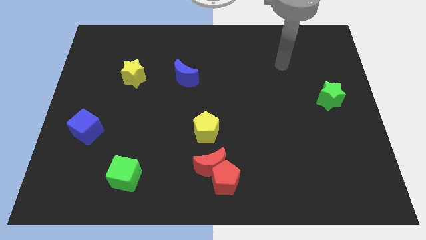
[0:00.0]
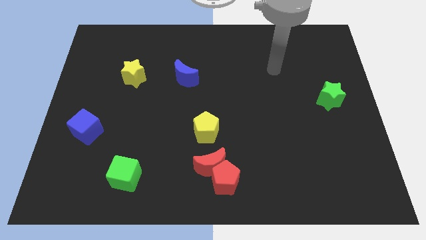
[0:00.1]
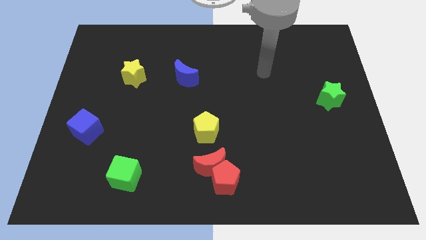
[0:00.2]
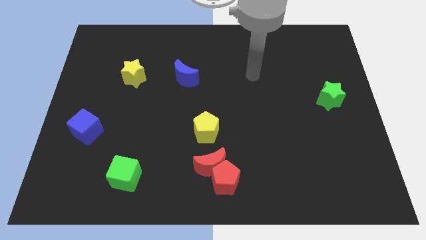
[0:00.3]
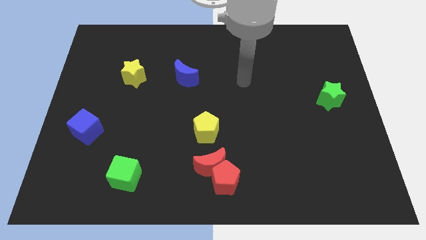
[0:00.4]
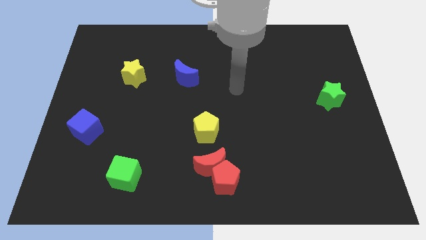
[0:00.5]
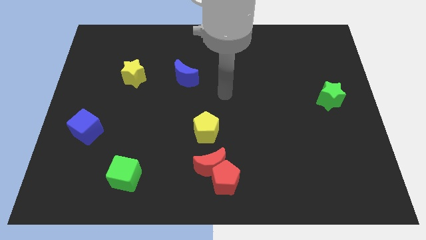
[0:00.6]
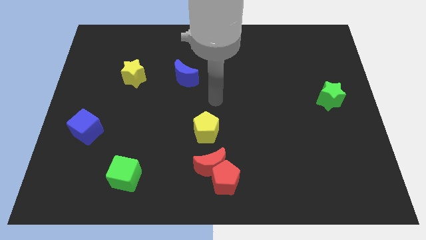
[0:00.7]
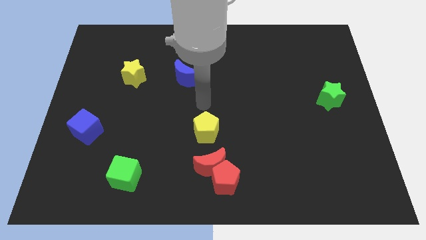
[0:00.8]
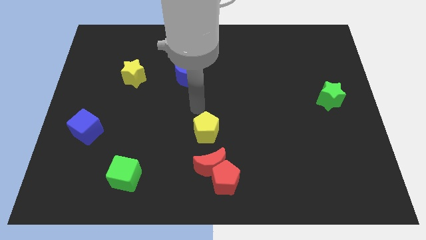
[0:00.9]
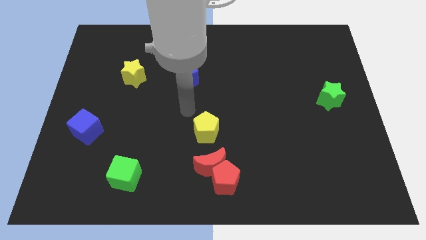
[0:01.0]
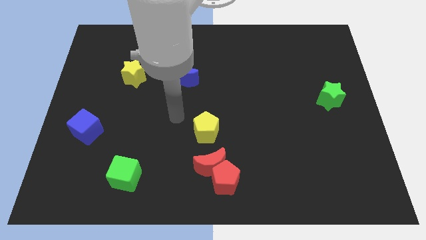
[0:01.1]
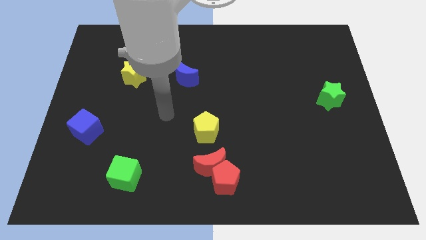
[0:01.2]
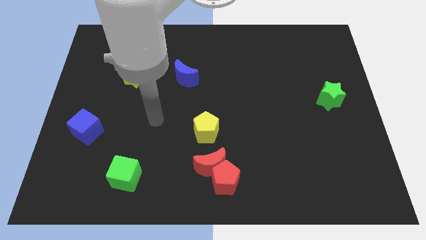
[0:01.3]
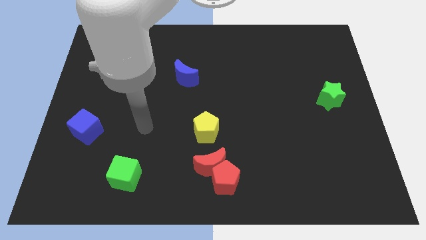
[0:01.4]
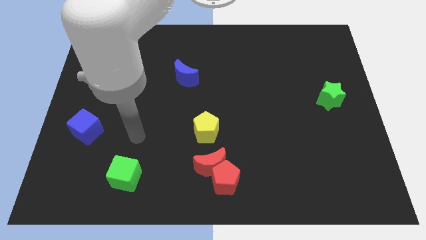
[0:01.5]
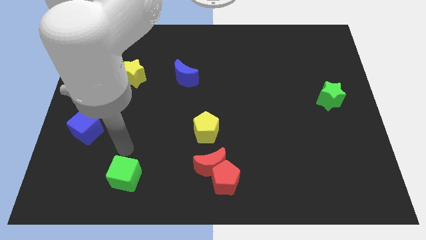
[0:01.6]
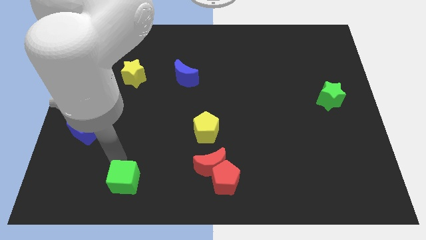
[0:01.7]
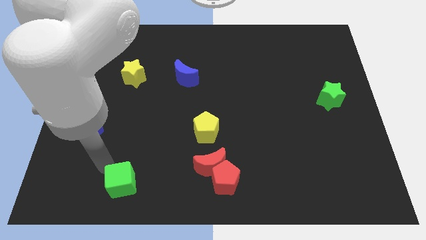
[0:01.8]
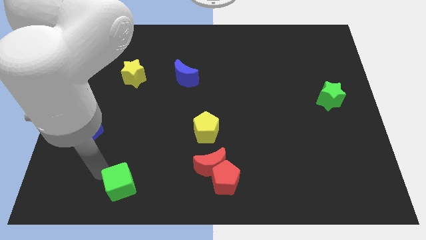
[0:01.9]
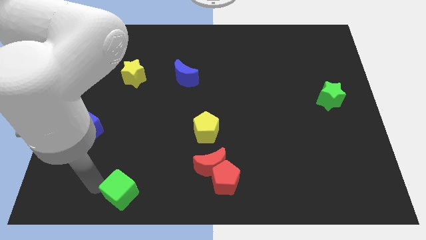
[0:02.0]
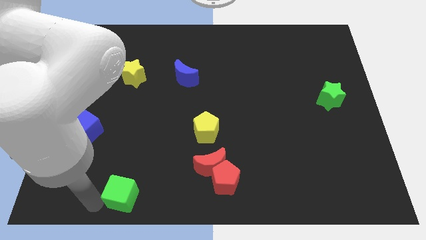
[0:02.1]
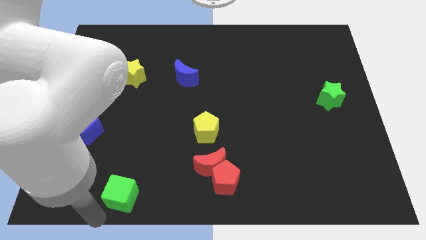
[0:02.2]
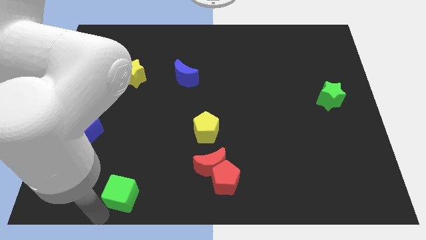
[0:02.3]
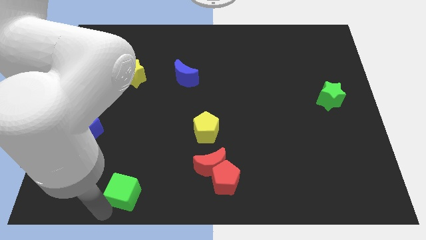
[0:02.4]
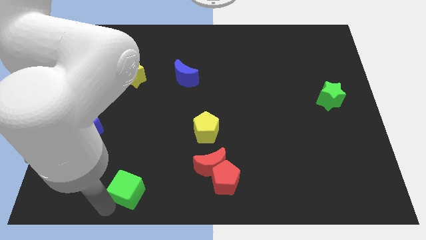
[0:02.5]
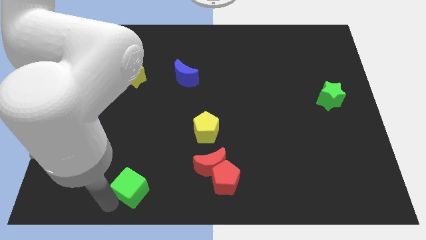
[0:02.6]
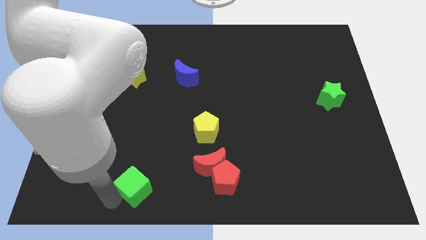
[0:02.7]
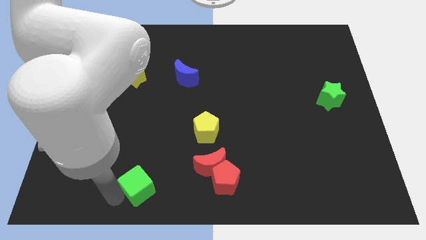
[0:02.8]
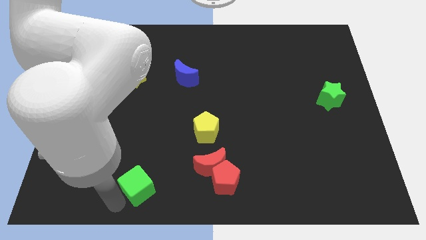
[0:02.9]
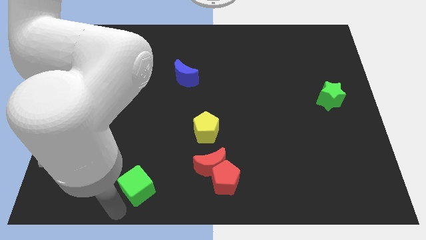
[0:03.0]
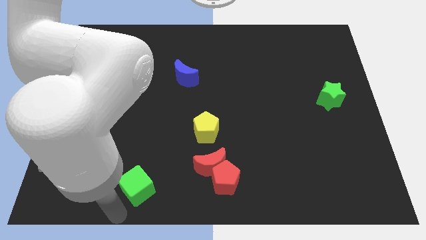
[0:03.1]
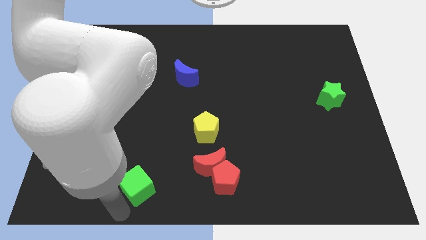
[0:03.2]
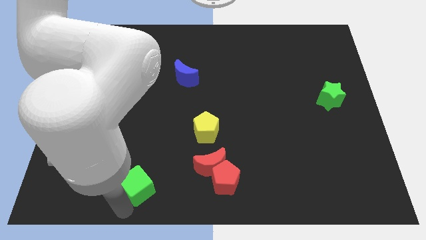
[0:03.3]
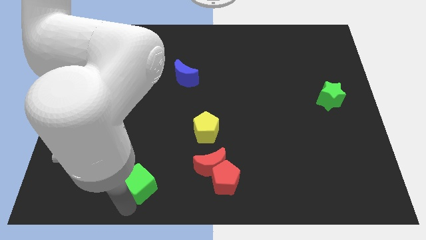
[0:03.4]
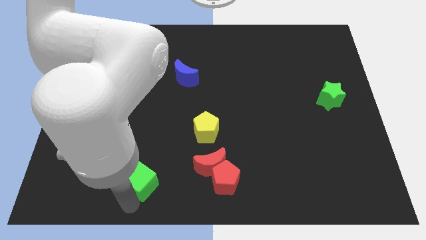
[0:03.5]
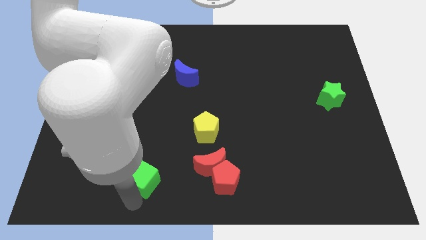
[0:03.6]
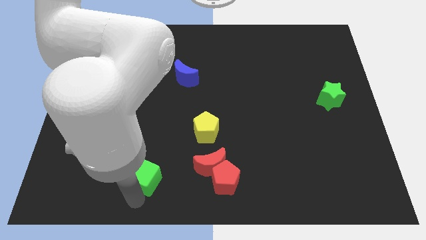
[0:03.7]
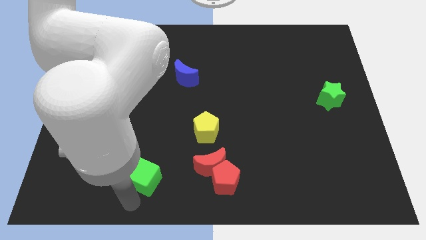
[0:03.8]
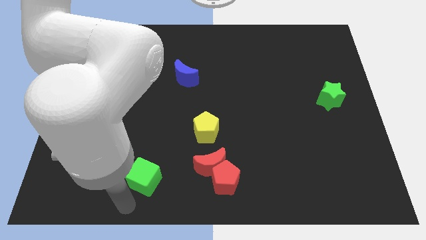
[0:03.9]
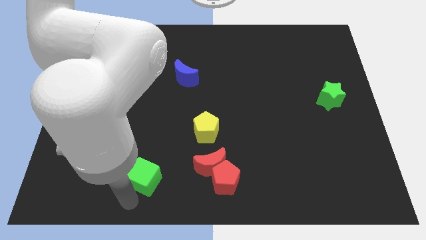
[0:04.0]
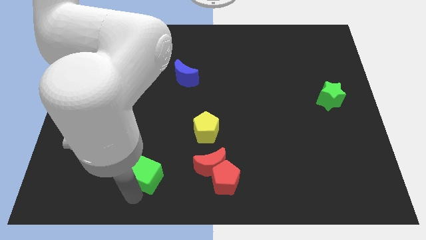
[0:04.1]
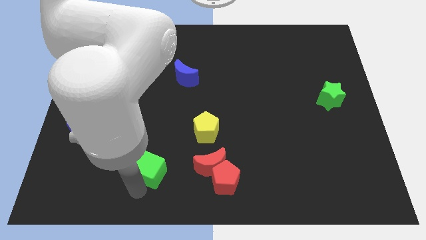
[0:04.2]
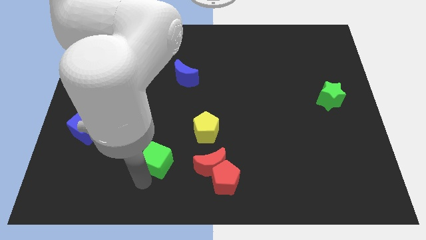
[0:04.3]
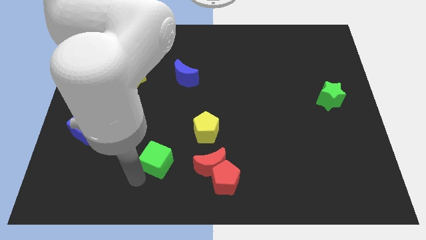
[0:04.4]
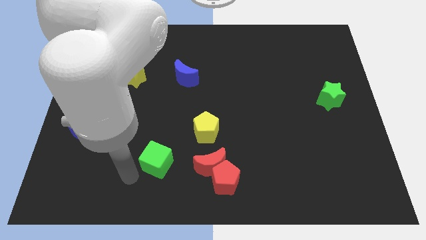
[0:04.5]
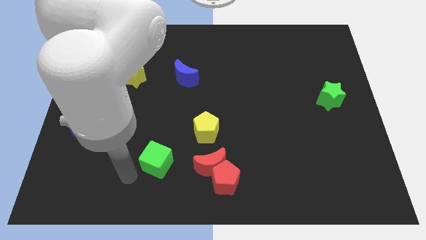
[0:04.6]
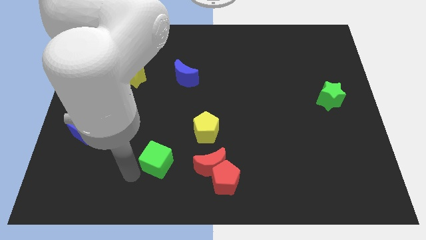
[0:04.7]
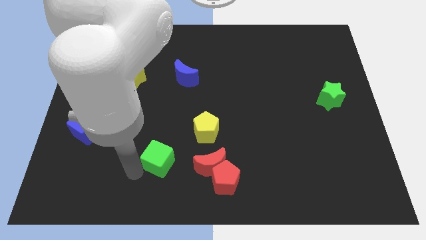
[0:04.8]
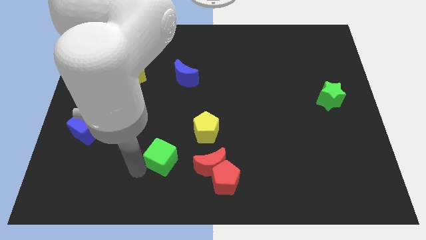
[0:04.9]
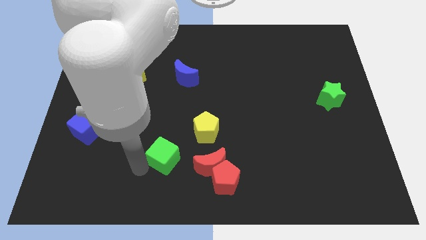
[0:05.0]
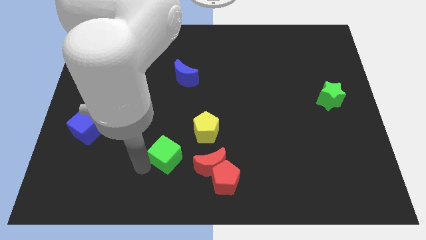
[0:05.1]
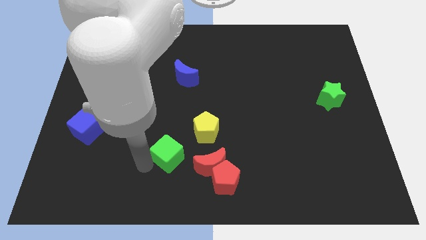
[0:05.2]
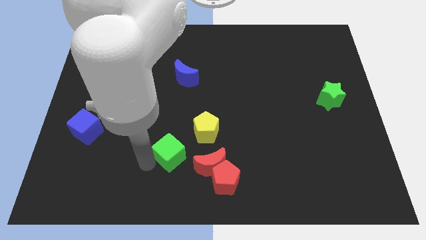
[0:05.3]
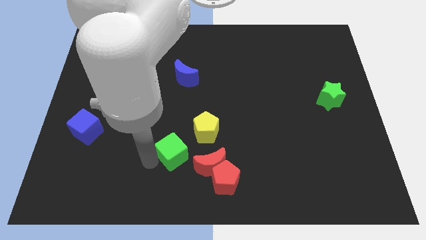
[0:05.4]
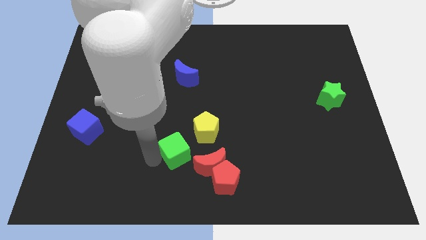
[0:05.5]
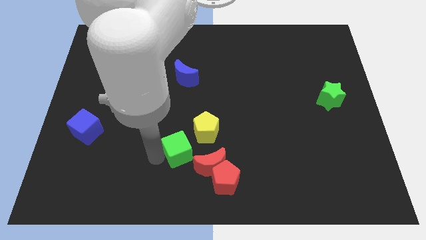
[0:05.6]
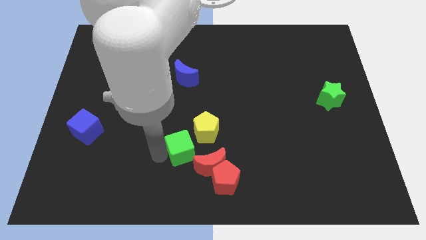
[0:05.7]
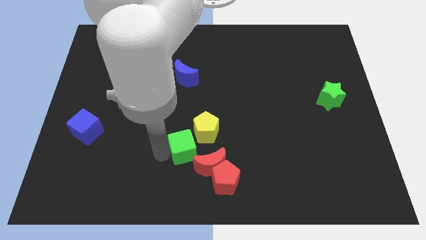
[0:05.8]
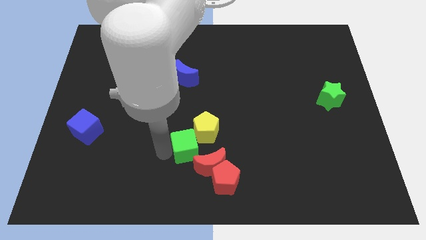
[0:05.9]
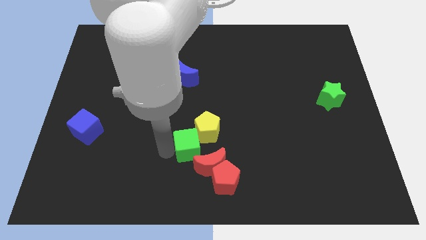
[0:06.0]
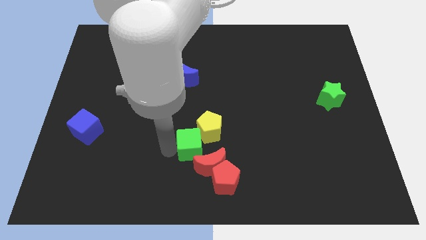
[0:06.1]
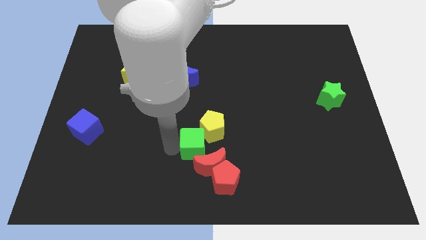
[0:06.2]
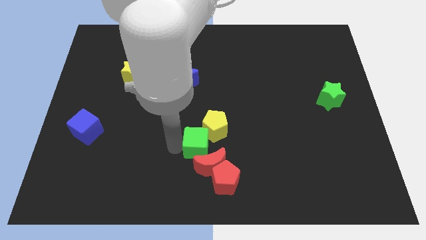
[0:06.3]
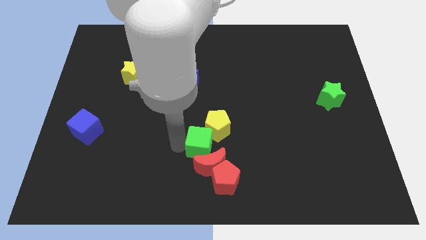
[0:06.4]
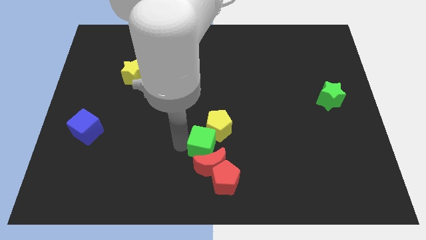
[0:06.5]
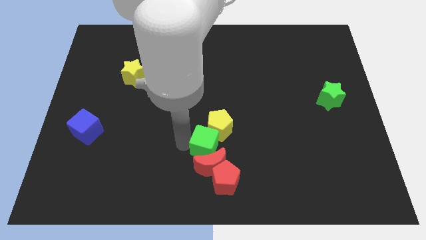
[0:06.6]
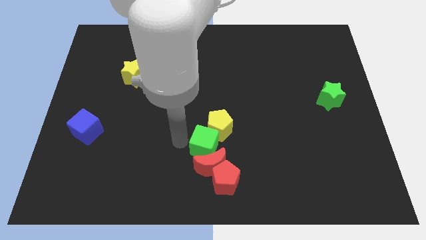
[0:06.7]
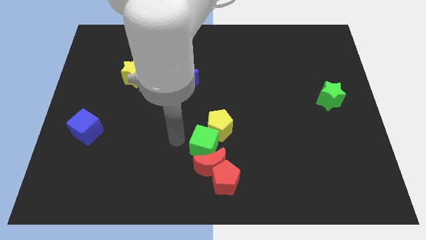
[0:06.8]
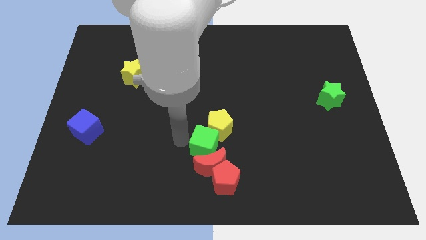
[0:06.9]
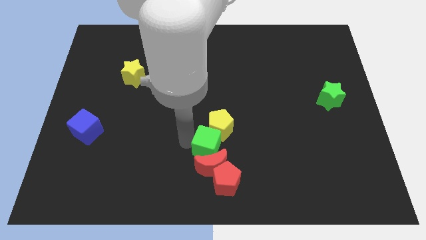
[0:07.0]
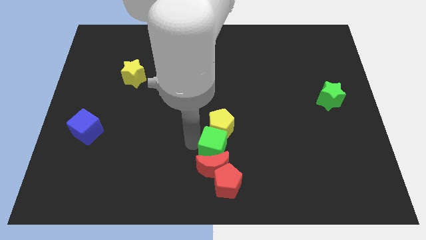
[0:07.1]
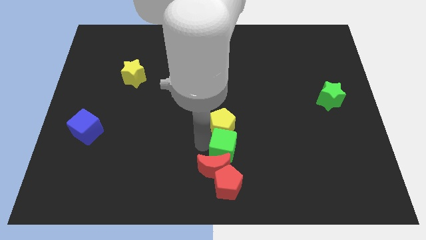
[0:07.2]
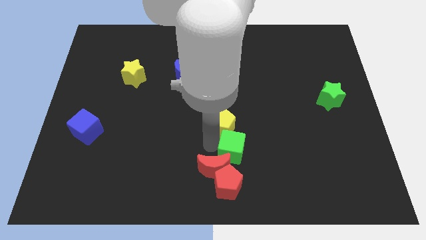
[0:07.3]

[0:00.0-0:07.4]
move the green cube right

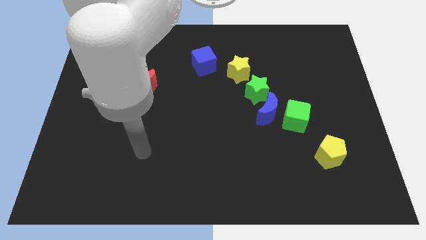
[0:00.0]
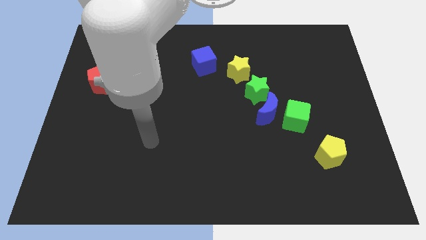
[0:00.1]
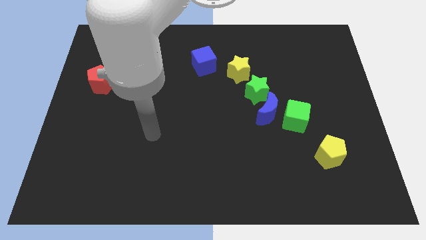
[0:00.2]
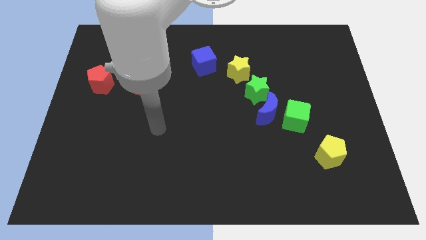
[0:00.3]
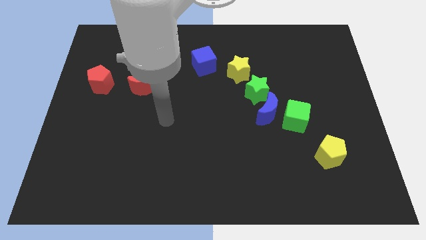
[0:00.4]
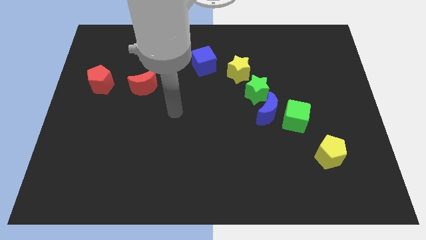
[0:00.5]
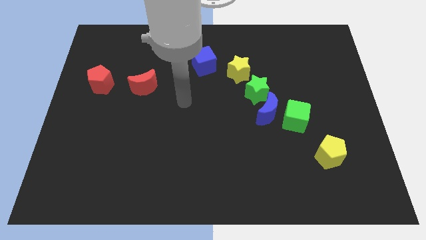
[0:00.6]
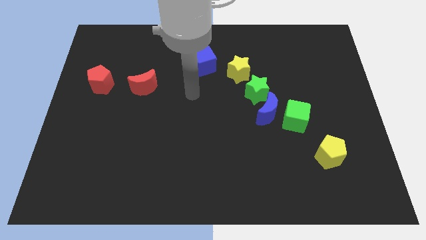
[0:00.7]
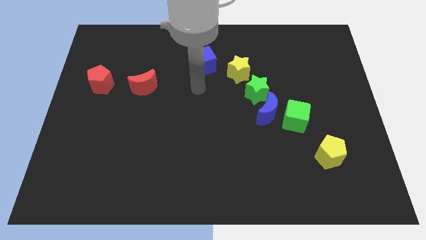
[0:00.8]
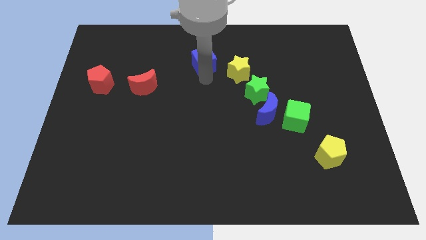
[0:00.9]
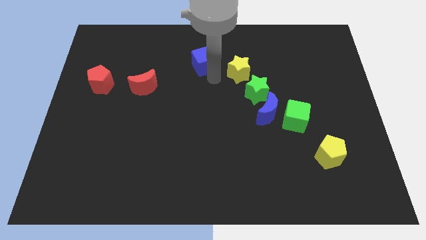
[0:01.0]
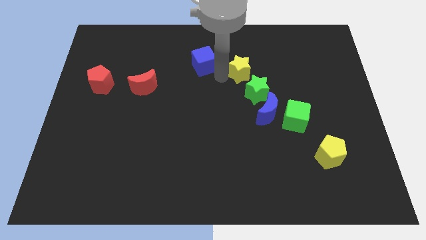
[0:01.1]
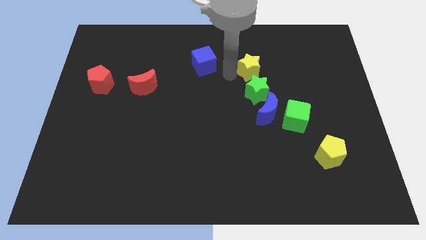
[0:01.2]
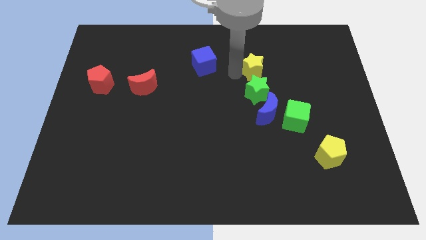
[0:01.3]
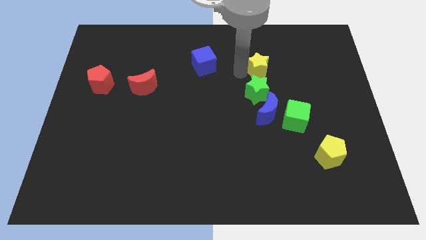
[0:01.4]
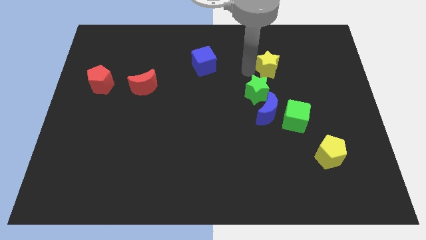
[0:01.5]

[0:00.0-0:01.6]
slide the yellow star slightly to the right
